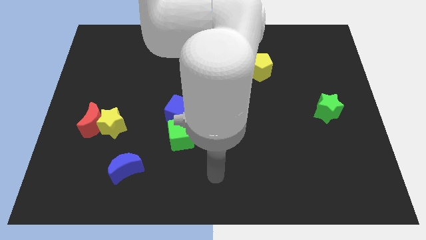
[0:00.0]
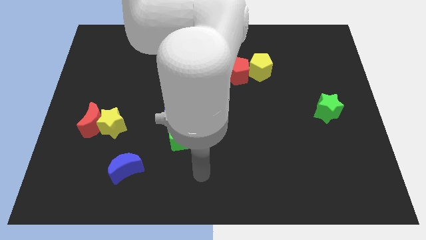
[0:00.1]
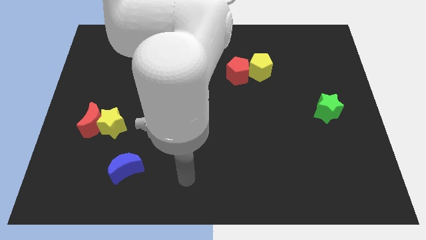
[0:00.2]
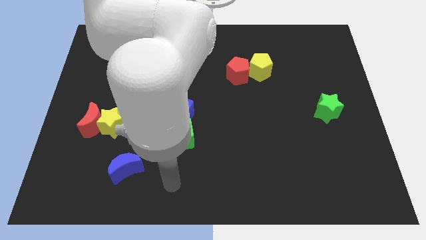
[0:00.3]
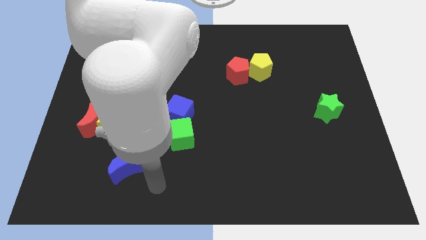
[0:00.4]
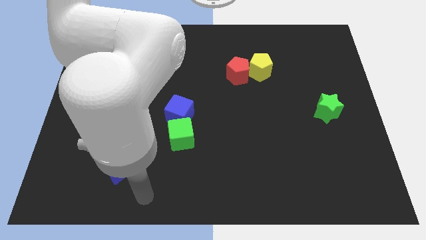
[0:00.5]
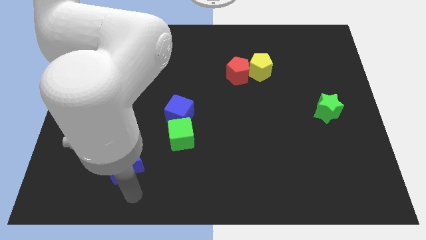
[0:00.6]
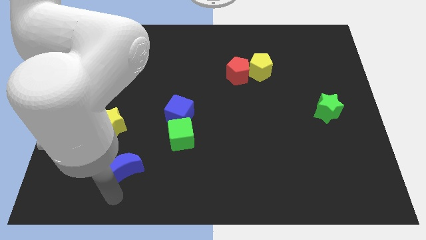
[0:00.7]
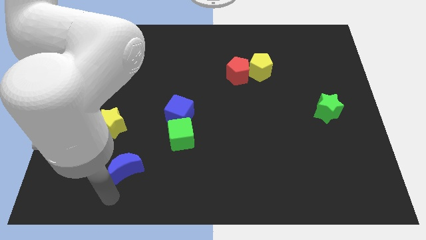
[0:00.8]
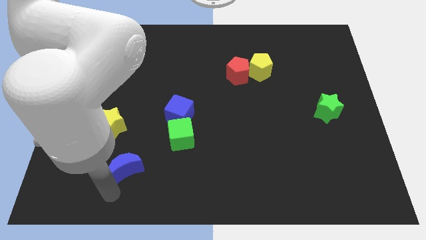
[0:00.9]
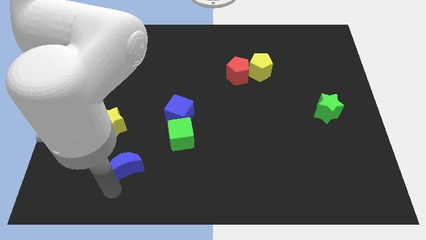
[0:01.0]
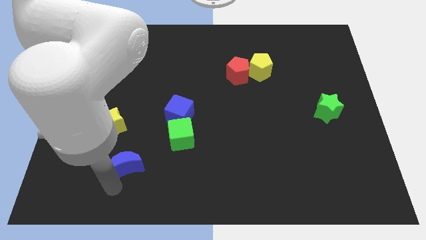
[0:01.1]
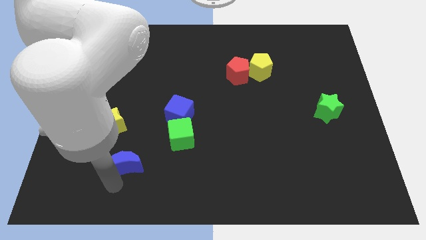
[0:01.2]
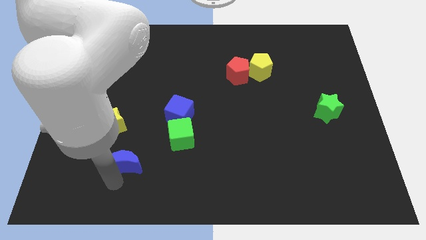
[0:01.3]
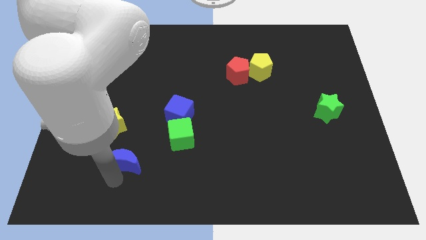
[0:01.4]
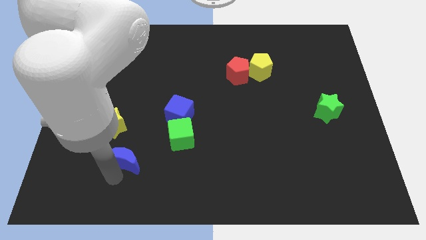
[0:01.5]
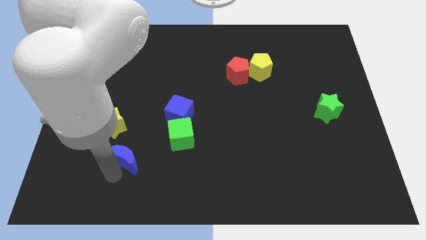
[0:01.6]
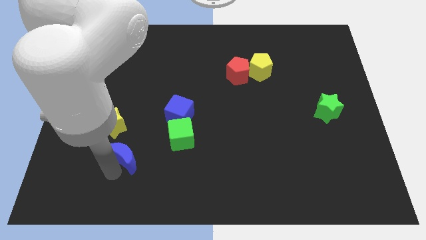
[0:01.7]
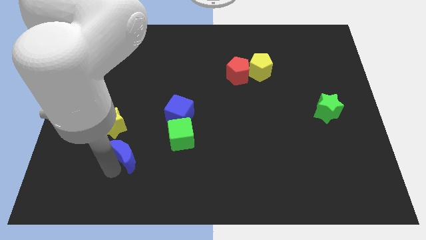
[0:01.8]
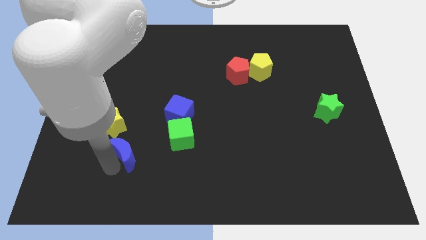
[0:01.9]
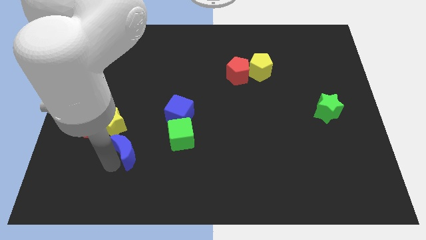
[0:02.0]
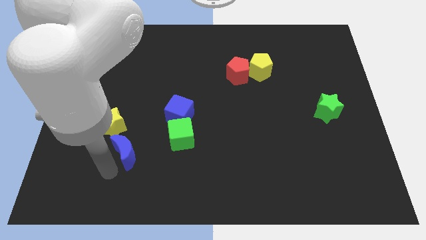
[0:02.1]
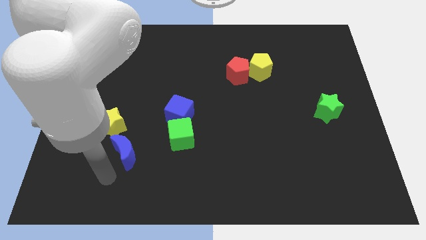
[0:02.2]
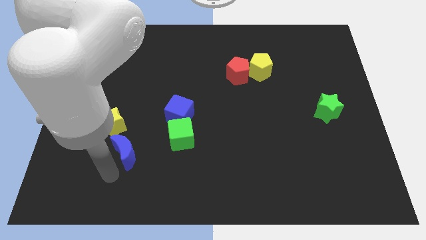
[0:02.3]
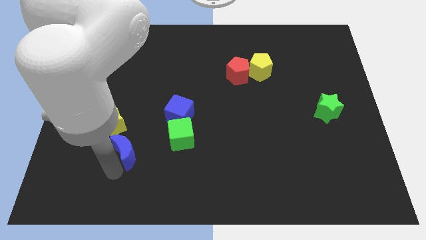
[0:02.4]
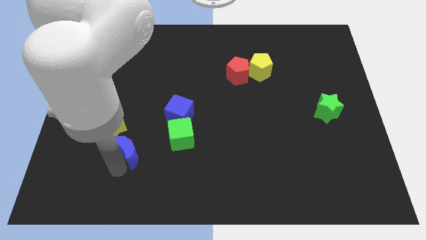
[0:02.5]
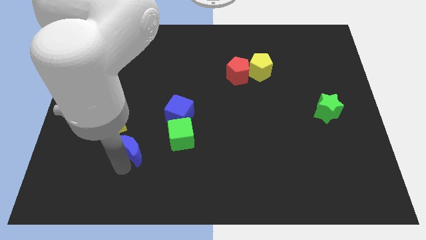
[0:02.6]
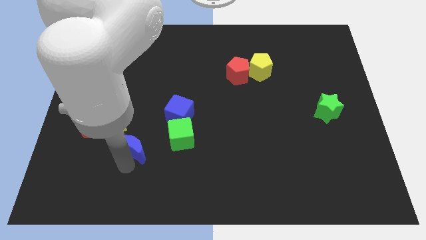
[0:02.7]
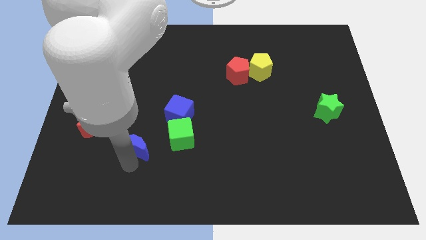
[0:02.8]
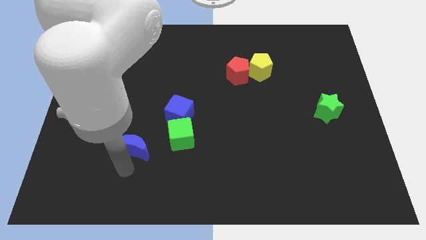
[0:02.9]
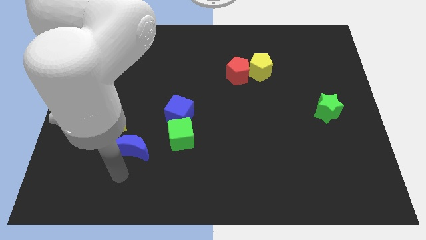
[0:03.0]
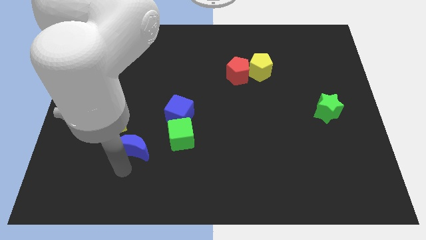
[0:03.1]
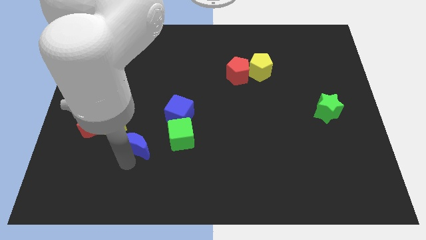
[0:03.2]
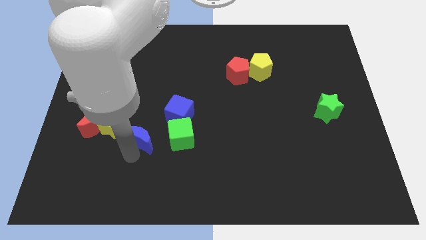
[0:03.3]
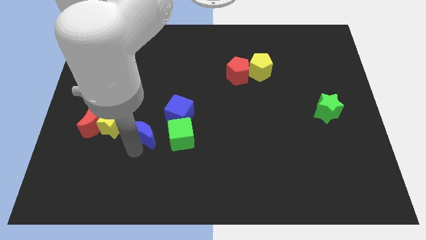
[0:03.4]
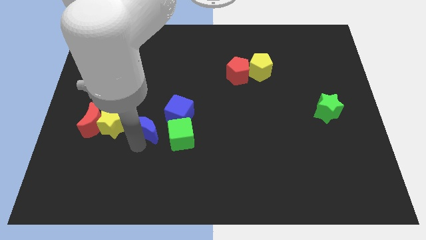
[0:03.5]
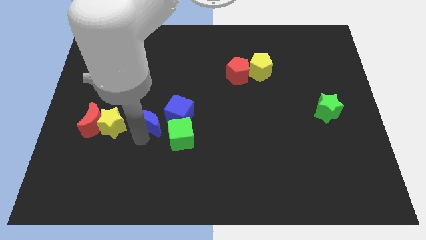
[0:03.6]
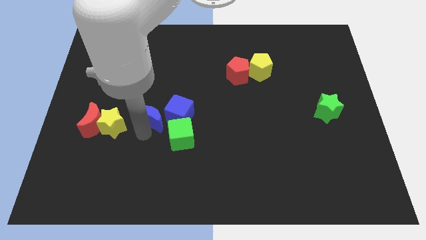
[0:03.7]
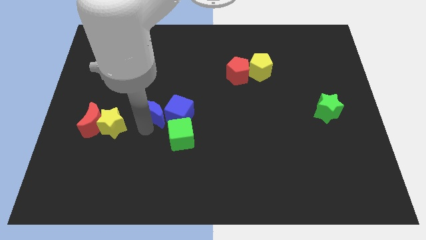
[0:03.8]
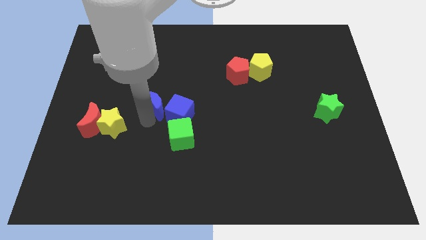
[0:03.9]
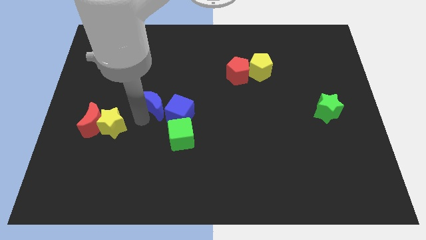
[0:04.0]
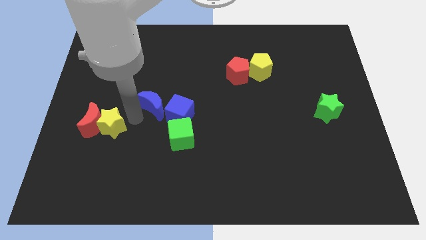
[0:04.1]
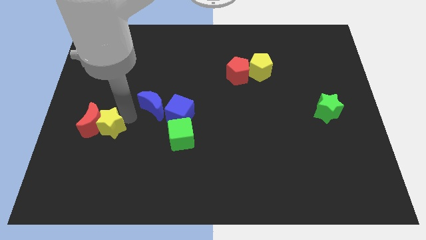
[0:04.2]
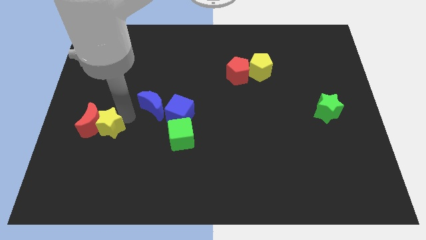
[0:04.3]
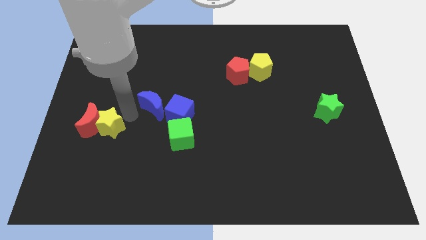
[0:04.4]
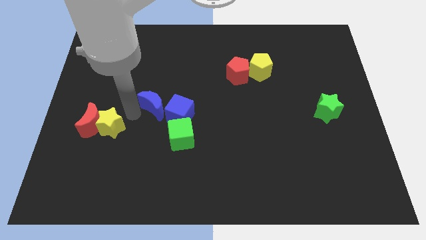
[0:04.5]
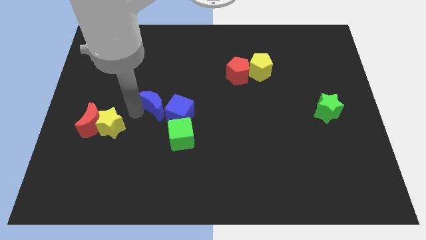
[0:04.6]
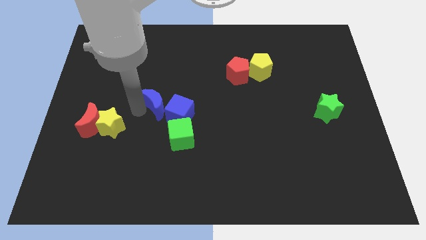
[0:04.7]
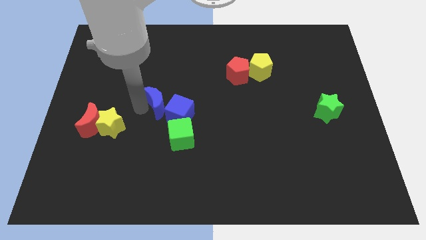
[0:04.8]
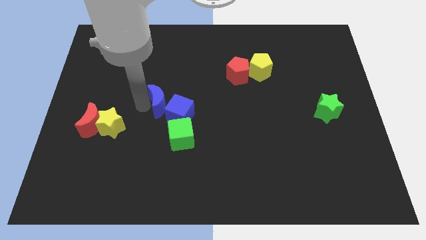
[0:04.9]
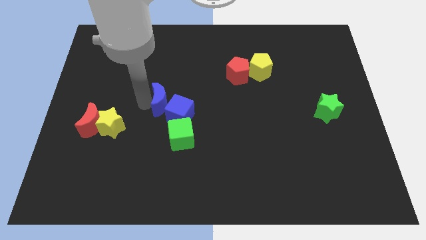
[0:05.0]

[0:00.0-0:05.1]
put the blue moon to the middle

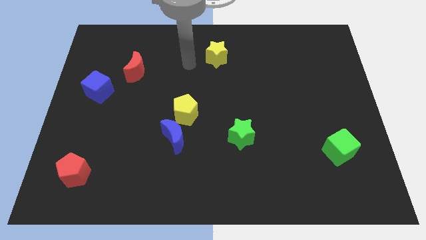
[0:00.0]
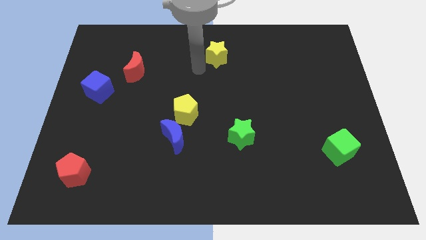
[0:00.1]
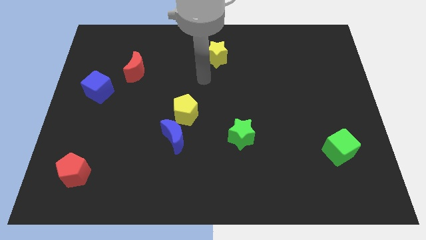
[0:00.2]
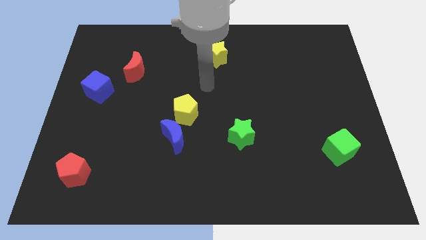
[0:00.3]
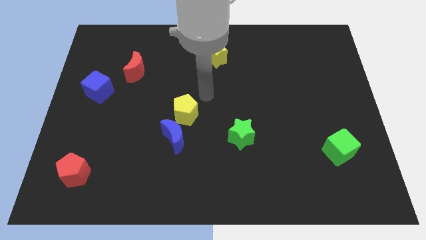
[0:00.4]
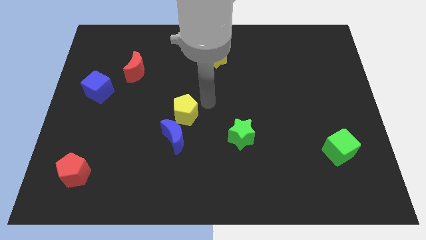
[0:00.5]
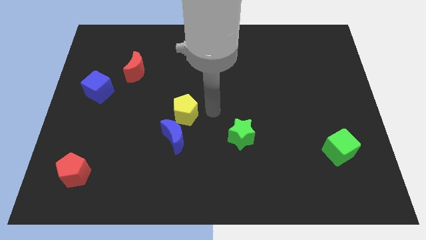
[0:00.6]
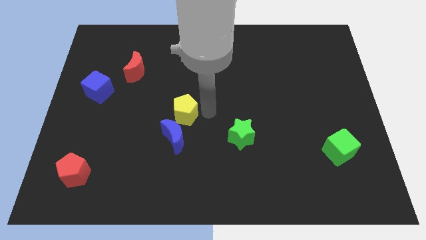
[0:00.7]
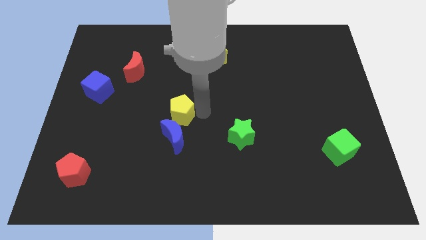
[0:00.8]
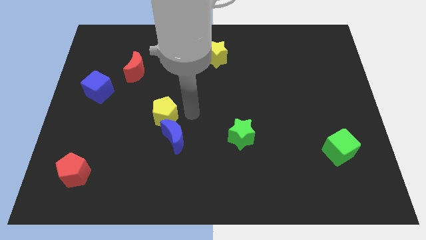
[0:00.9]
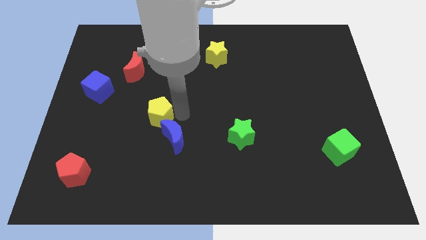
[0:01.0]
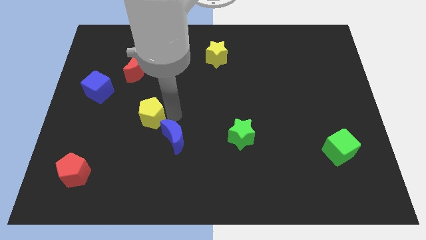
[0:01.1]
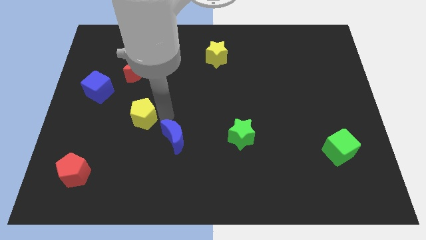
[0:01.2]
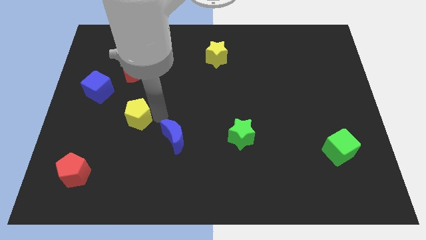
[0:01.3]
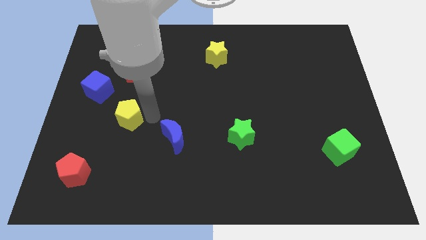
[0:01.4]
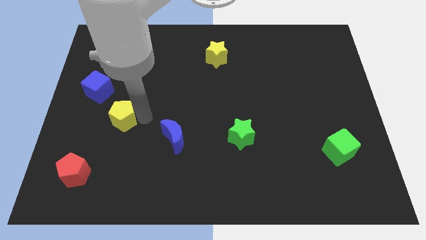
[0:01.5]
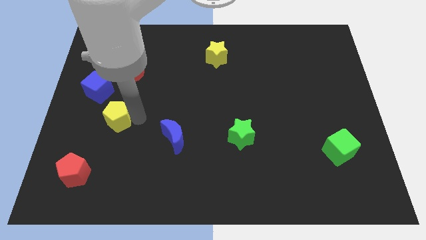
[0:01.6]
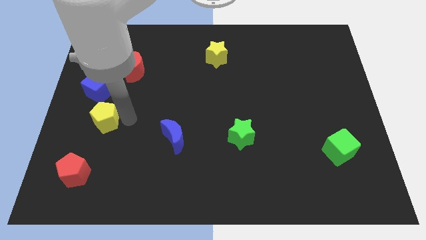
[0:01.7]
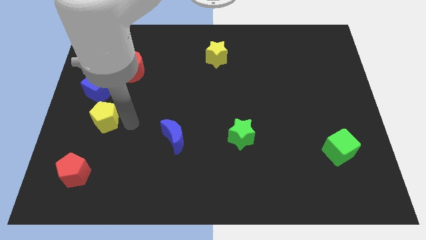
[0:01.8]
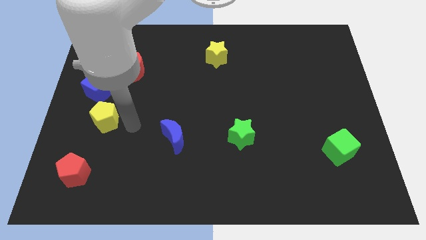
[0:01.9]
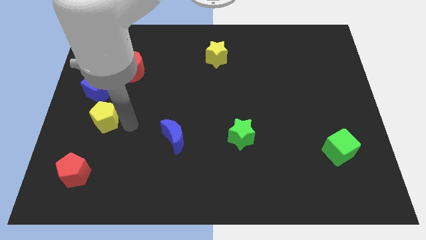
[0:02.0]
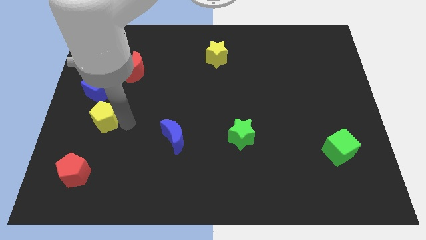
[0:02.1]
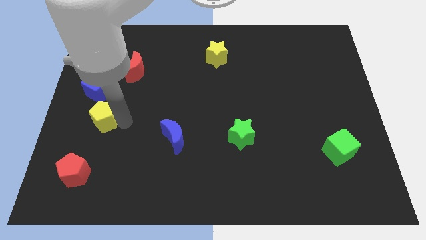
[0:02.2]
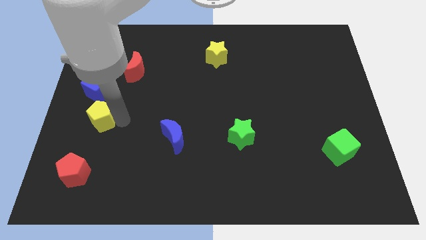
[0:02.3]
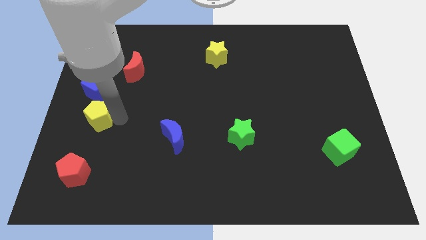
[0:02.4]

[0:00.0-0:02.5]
slide the yellow pentagon to the center left
